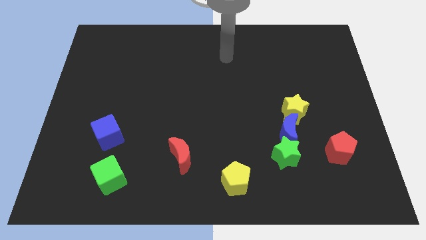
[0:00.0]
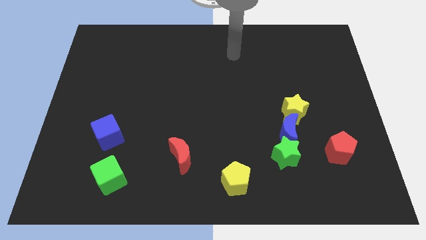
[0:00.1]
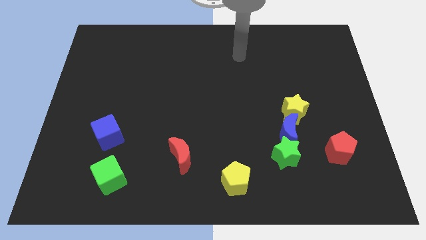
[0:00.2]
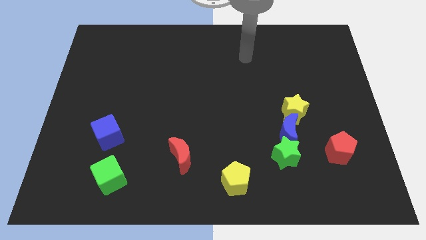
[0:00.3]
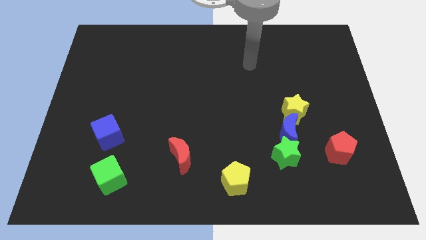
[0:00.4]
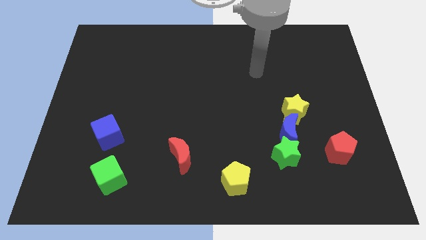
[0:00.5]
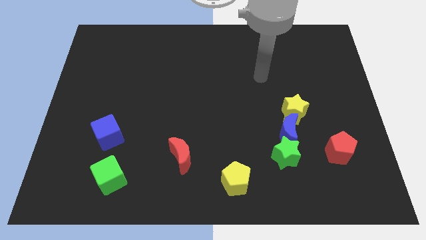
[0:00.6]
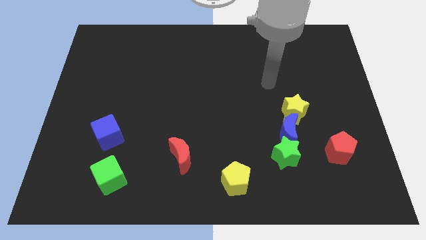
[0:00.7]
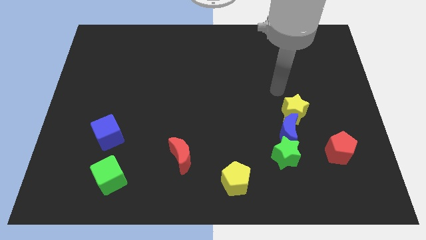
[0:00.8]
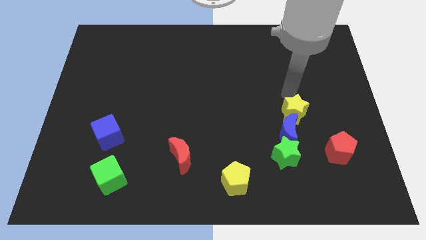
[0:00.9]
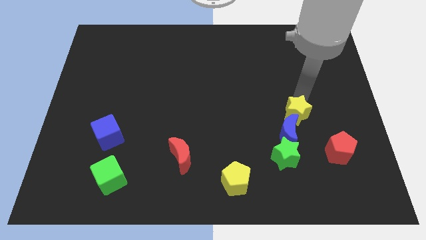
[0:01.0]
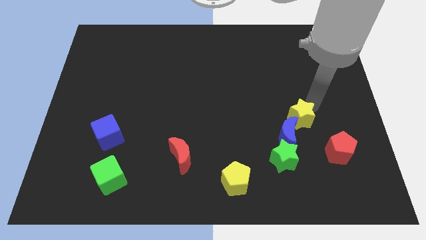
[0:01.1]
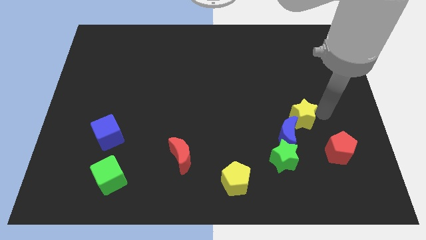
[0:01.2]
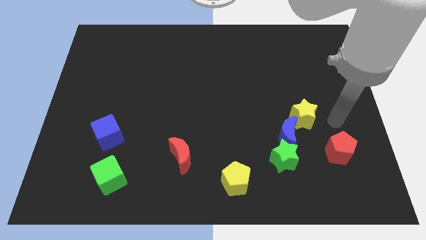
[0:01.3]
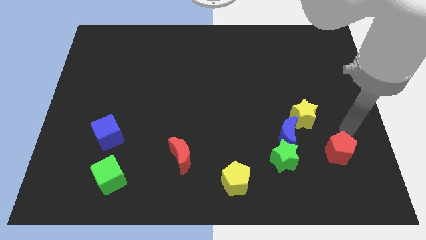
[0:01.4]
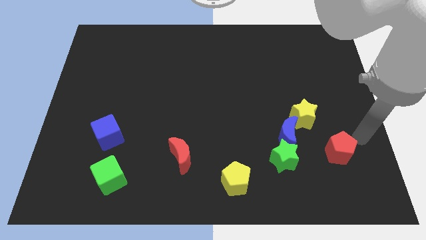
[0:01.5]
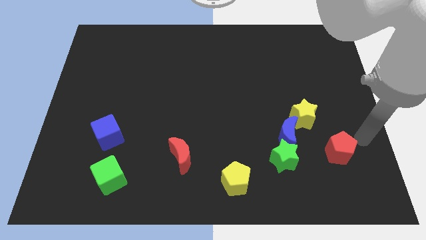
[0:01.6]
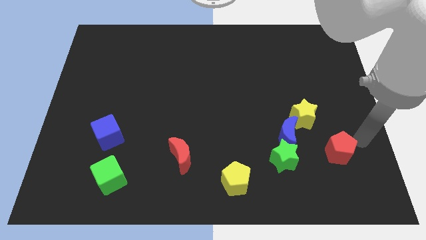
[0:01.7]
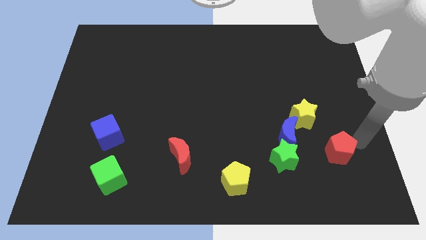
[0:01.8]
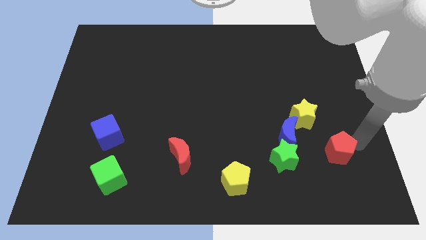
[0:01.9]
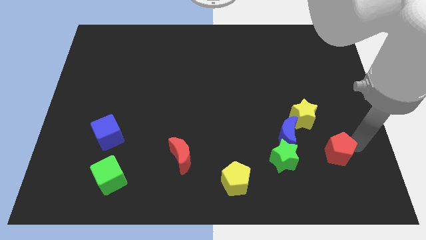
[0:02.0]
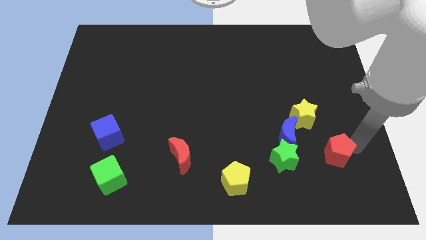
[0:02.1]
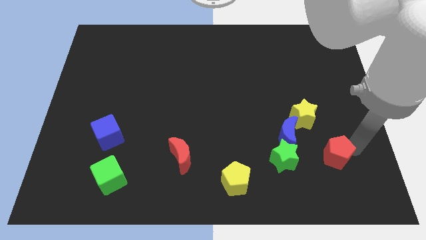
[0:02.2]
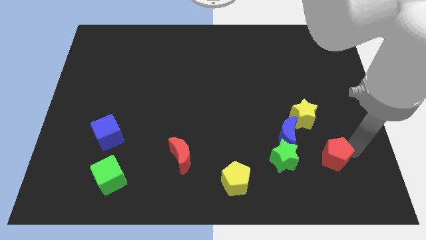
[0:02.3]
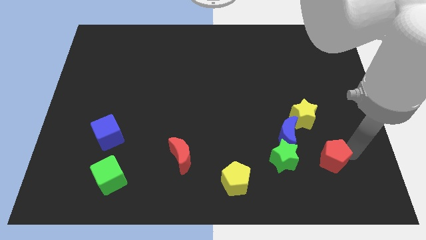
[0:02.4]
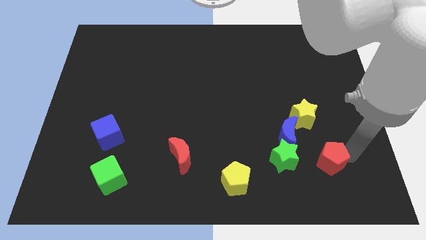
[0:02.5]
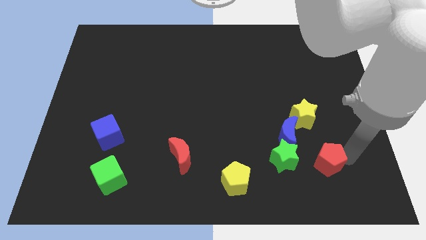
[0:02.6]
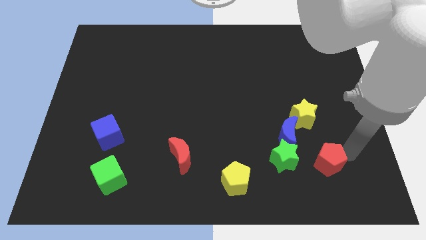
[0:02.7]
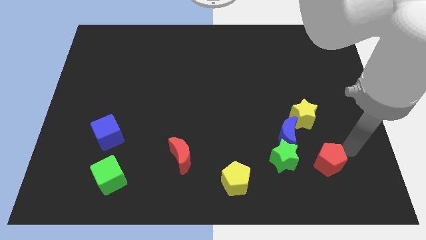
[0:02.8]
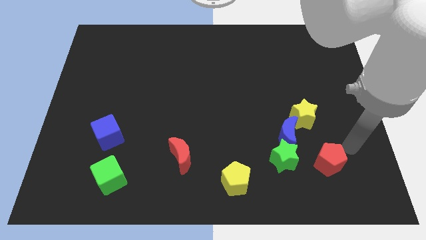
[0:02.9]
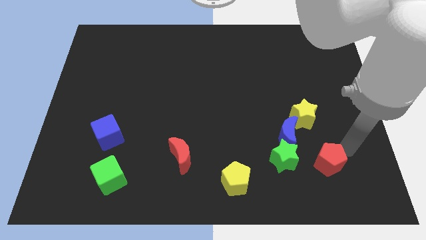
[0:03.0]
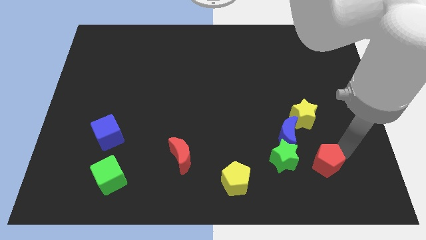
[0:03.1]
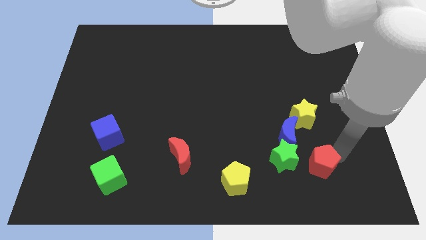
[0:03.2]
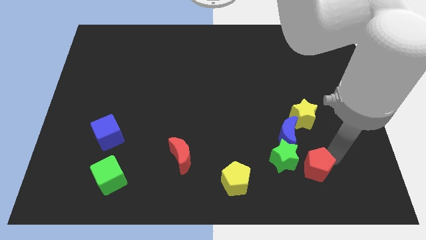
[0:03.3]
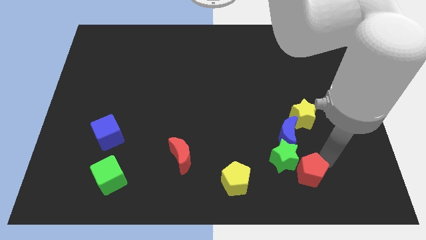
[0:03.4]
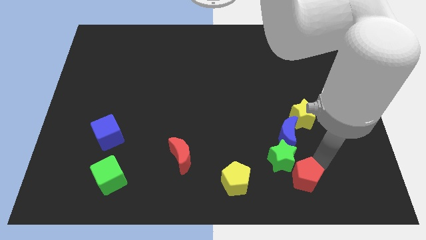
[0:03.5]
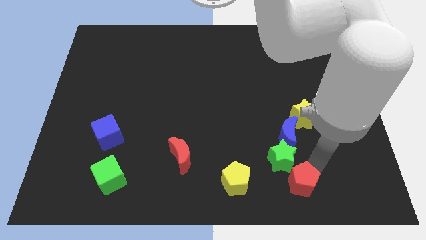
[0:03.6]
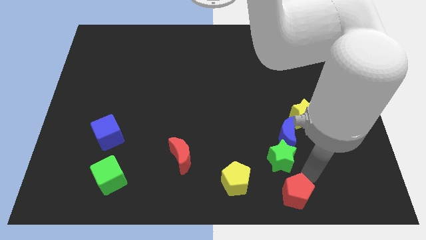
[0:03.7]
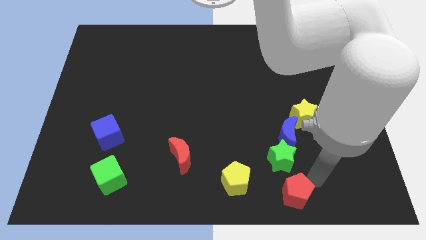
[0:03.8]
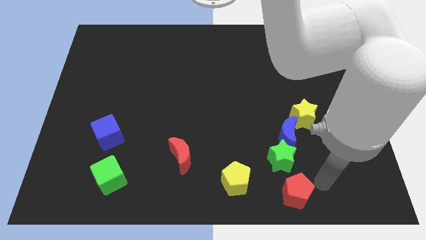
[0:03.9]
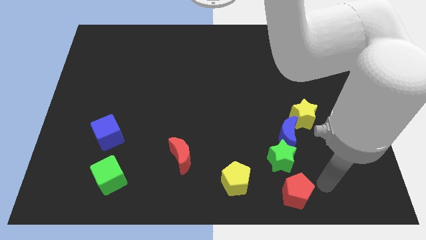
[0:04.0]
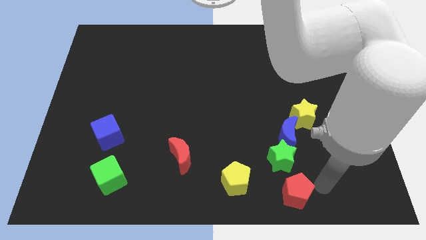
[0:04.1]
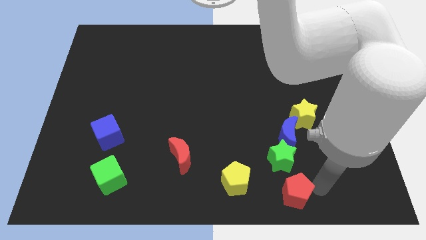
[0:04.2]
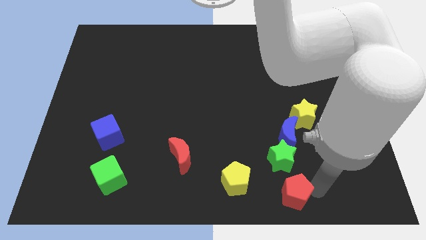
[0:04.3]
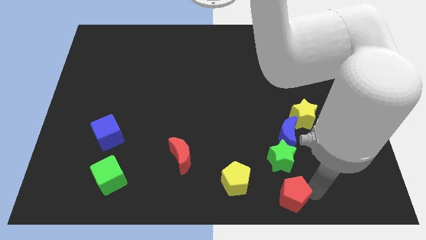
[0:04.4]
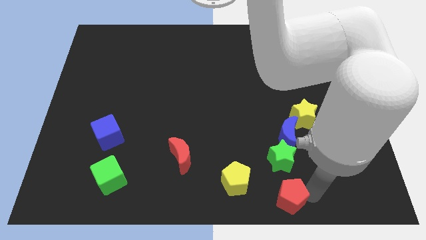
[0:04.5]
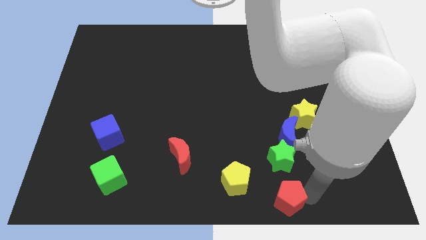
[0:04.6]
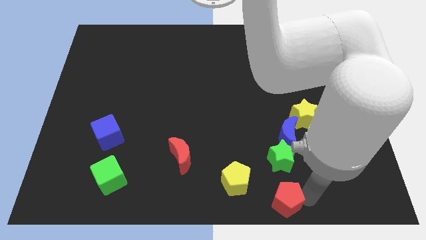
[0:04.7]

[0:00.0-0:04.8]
slide the red pentagon to the bottom side

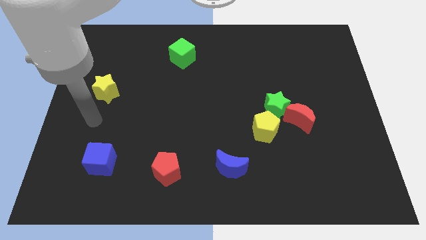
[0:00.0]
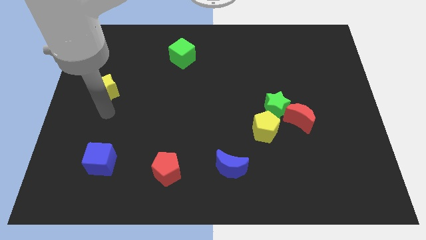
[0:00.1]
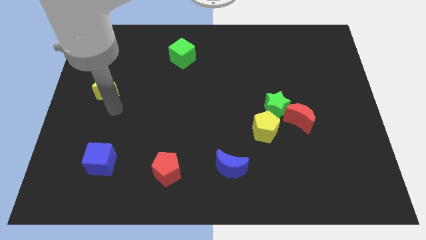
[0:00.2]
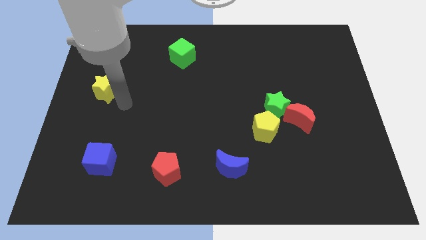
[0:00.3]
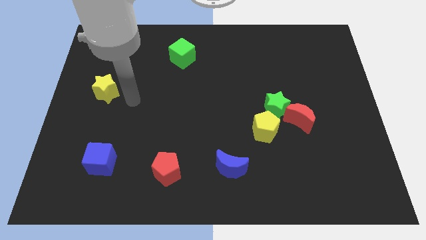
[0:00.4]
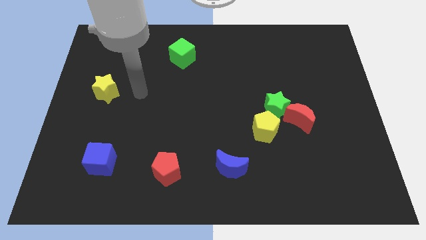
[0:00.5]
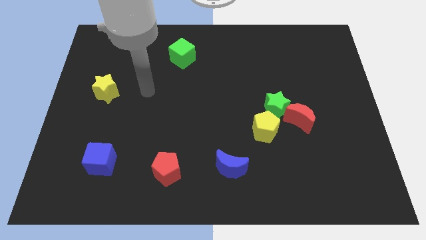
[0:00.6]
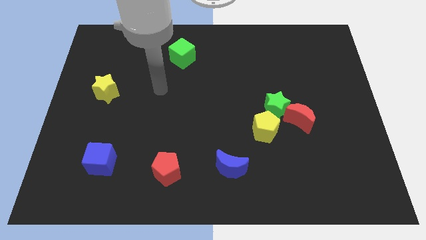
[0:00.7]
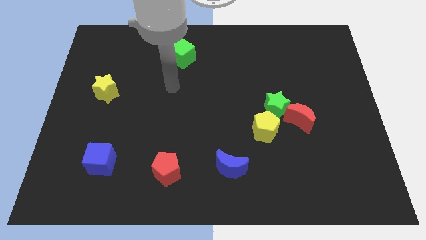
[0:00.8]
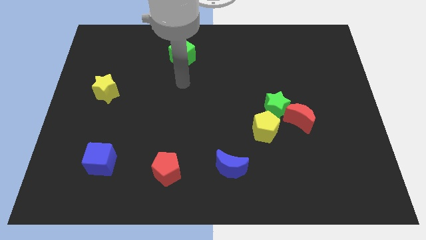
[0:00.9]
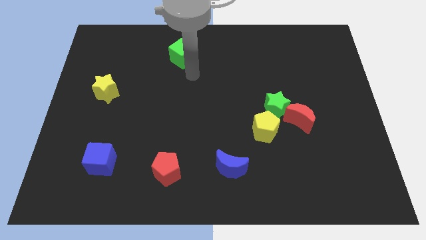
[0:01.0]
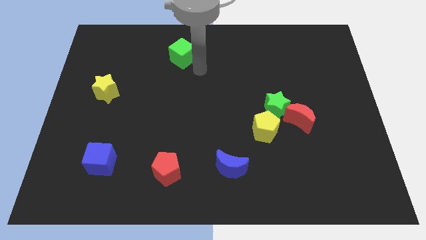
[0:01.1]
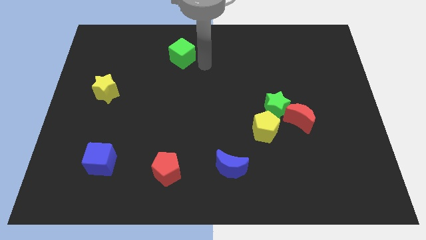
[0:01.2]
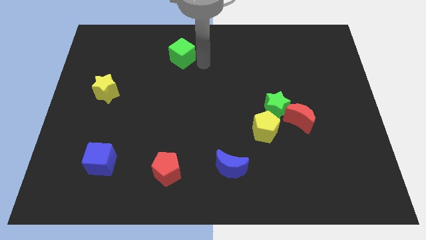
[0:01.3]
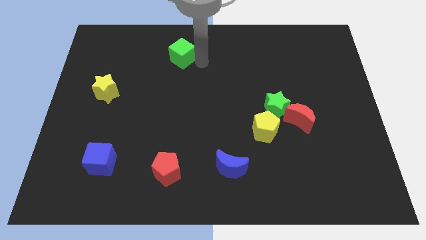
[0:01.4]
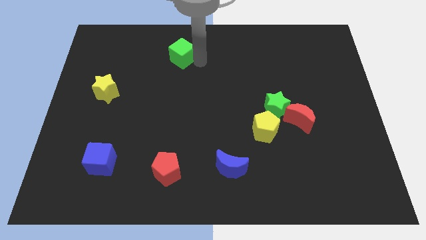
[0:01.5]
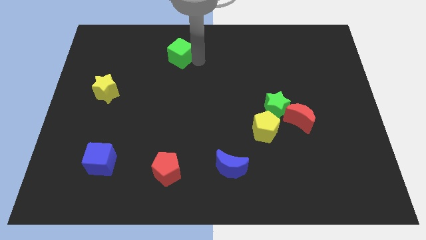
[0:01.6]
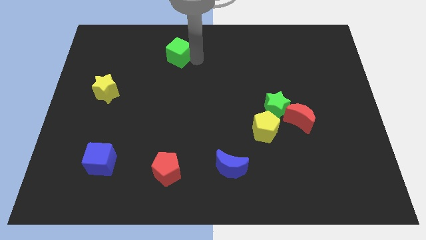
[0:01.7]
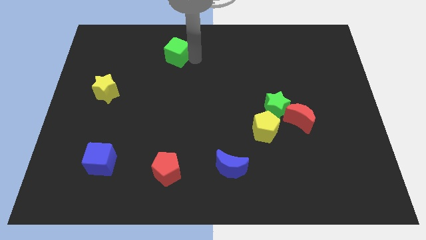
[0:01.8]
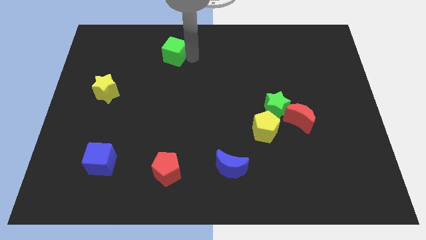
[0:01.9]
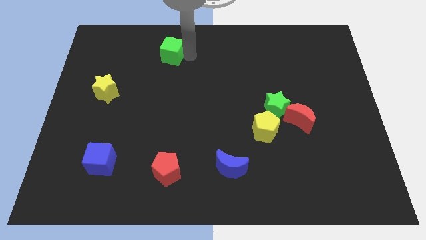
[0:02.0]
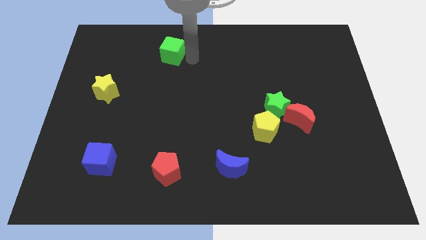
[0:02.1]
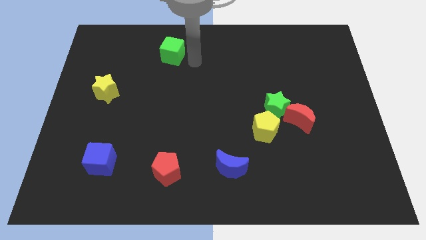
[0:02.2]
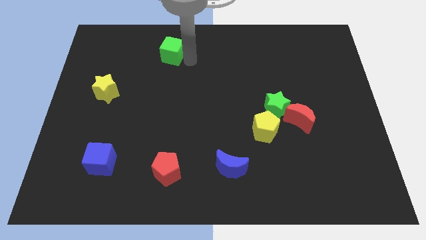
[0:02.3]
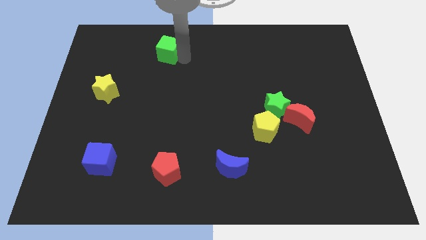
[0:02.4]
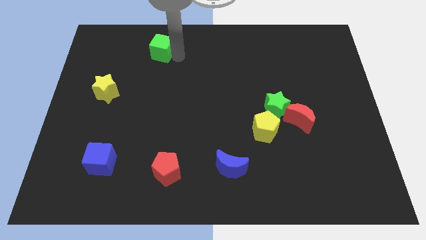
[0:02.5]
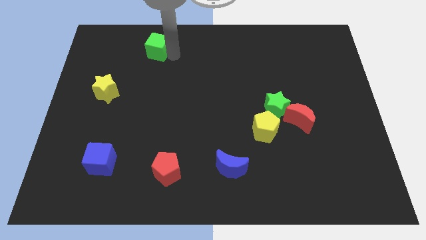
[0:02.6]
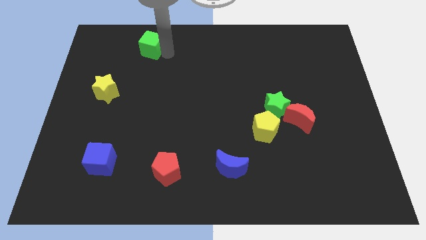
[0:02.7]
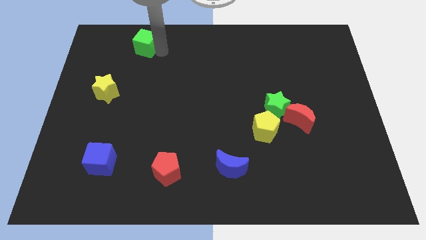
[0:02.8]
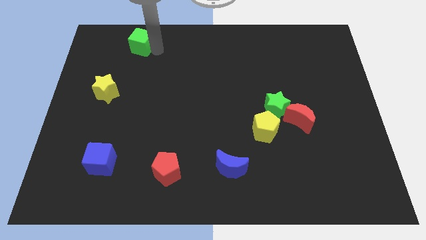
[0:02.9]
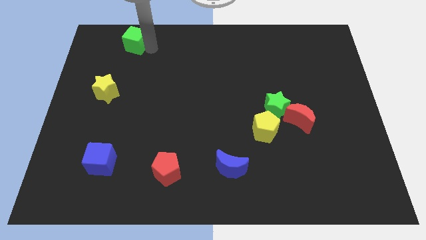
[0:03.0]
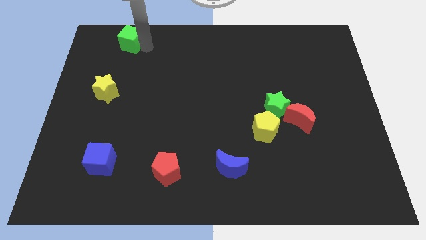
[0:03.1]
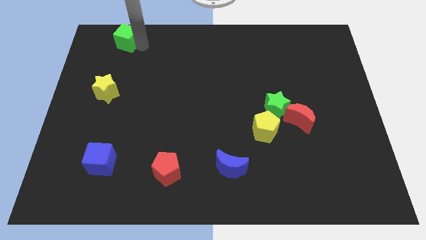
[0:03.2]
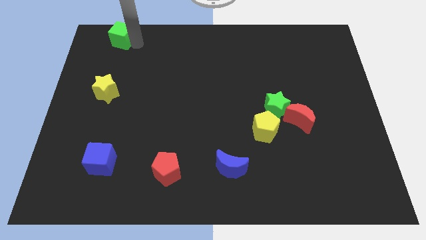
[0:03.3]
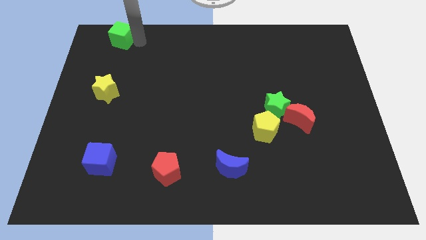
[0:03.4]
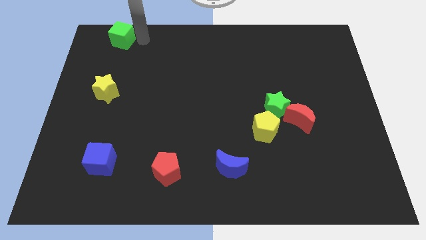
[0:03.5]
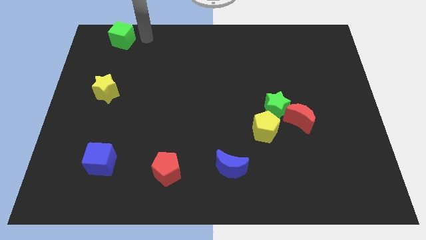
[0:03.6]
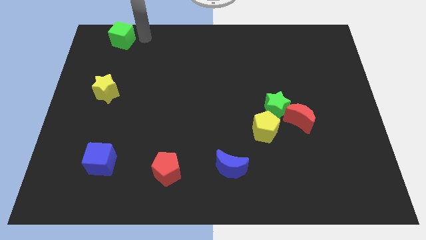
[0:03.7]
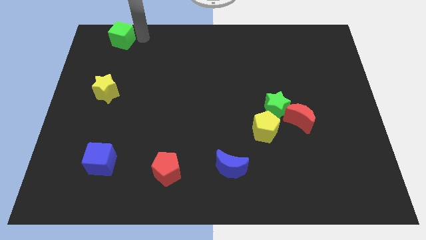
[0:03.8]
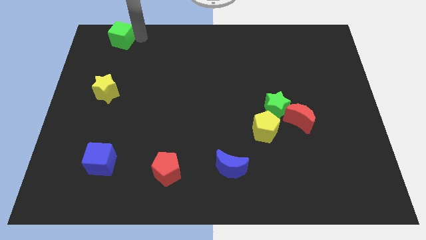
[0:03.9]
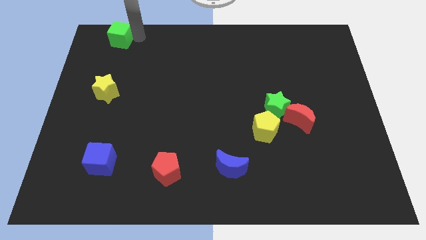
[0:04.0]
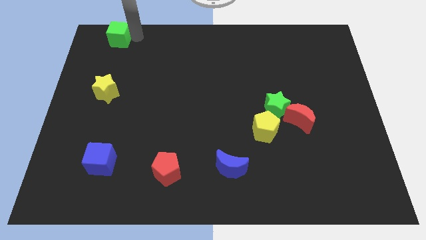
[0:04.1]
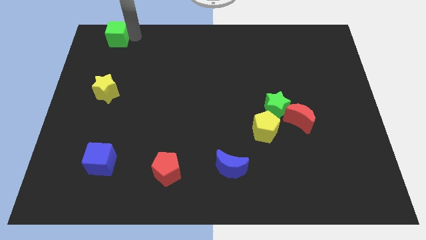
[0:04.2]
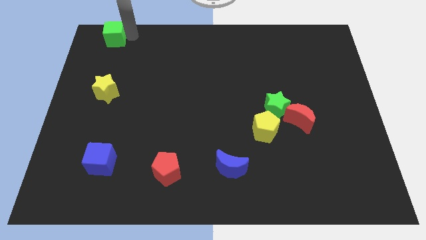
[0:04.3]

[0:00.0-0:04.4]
slide the green cube to the top left of the board
